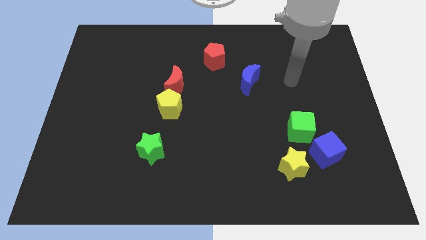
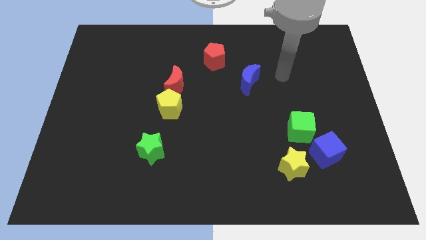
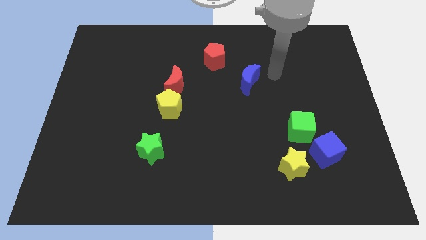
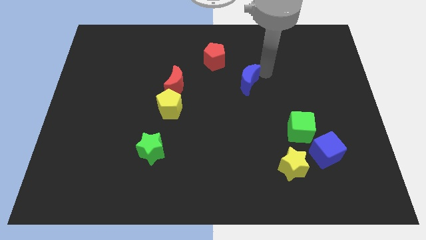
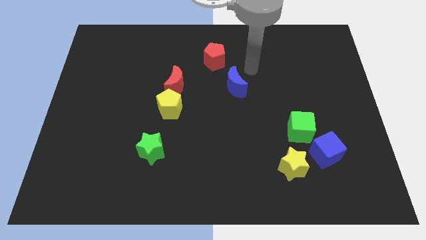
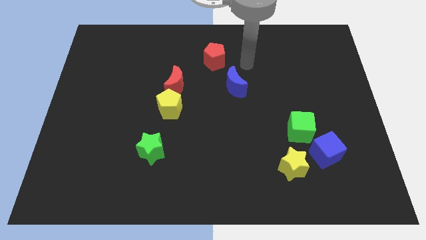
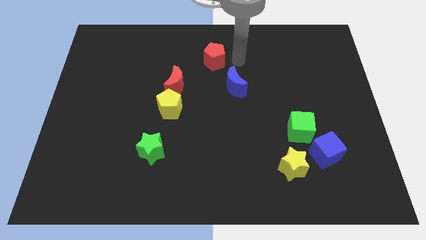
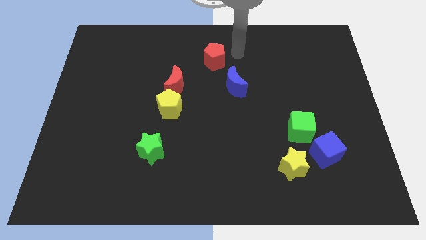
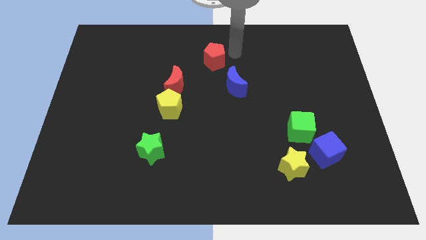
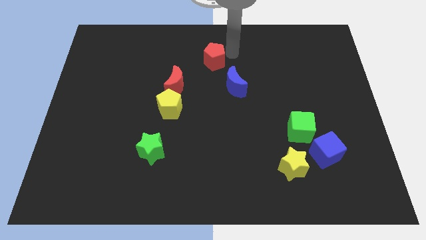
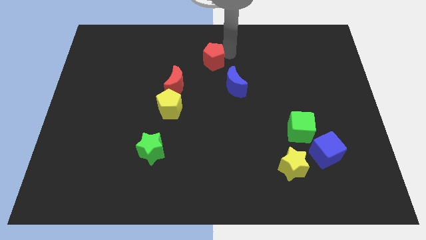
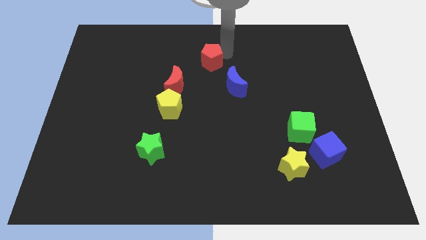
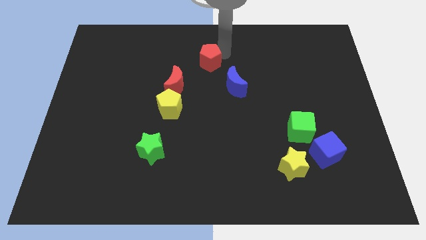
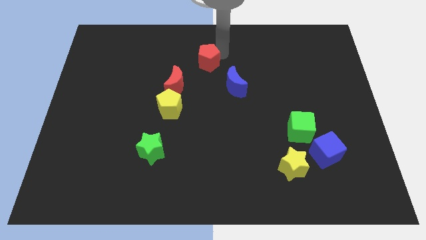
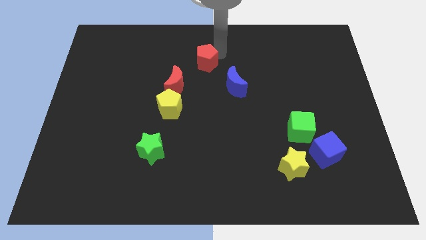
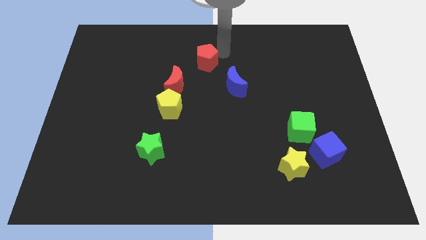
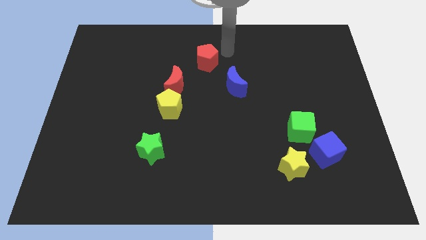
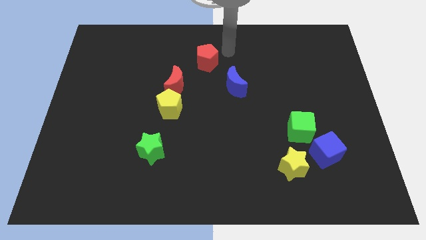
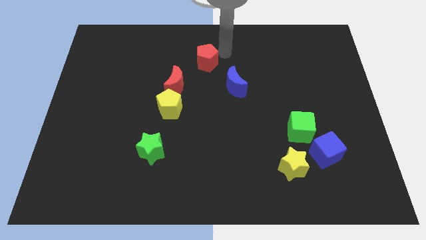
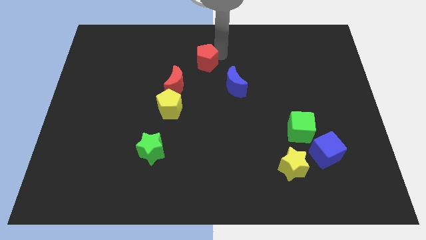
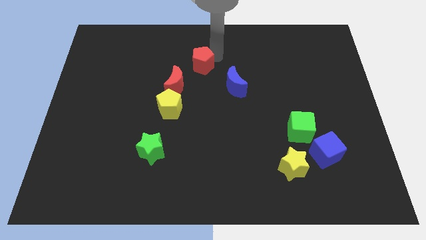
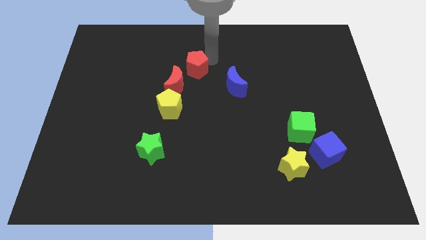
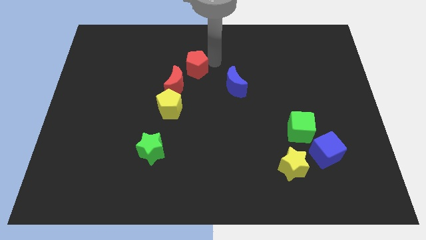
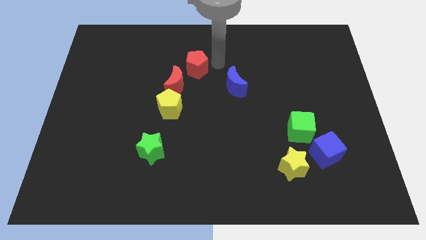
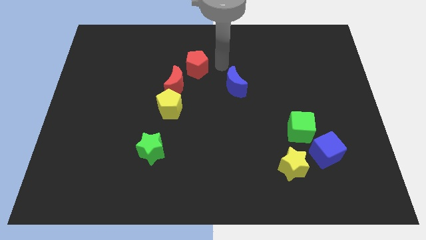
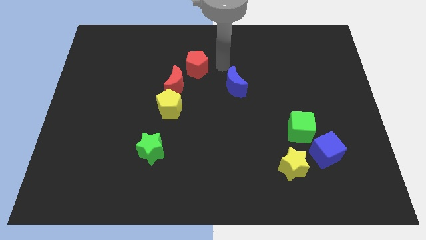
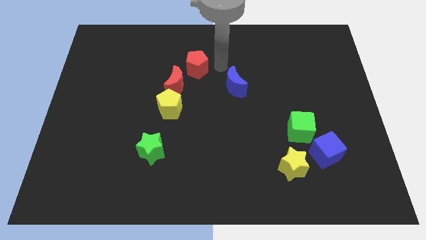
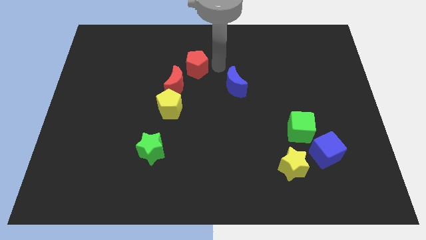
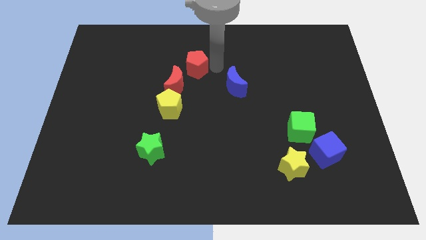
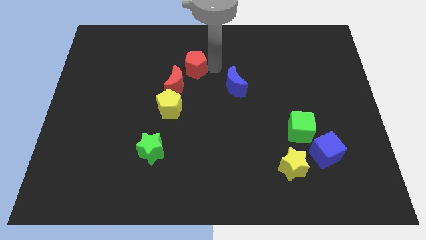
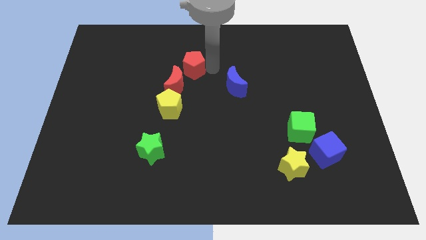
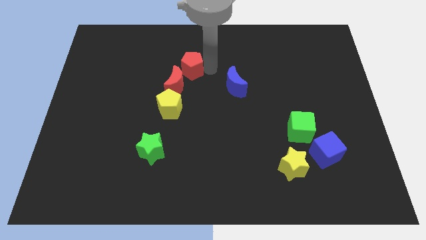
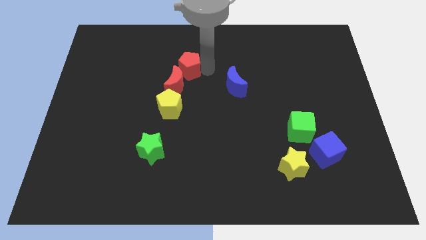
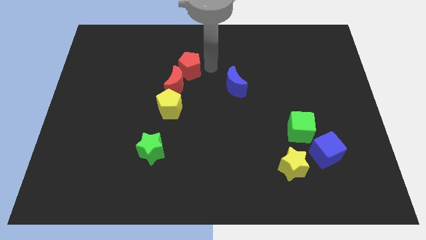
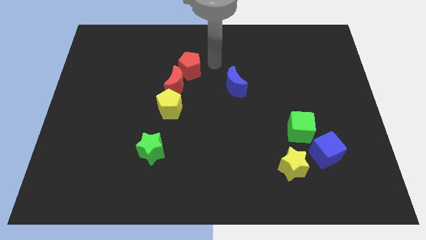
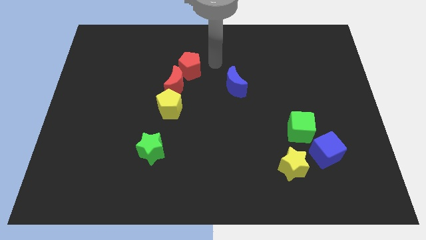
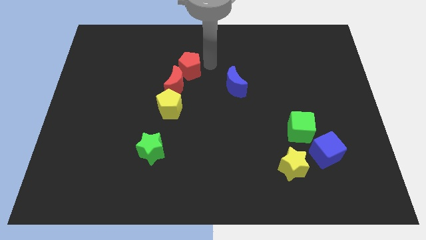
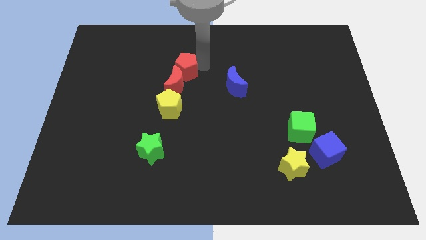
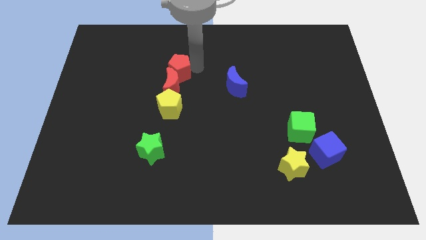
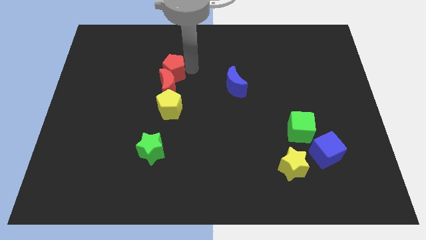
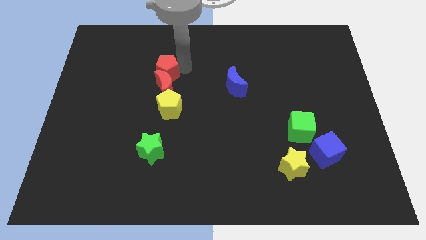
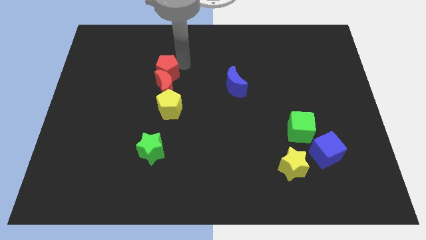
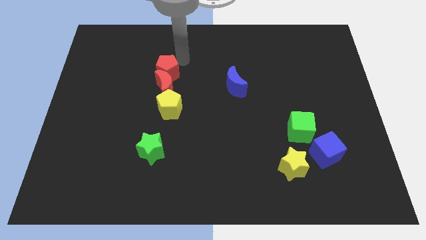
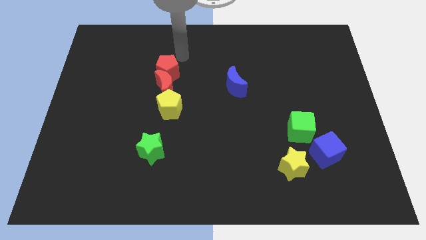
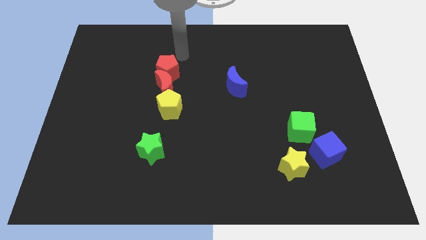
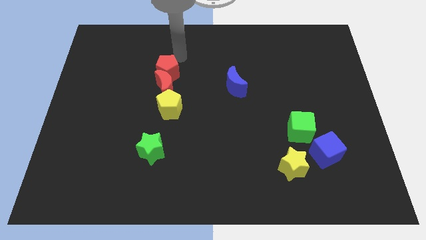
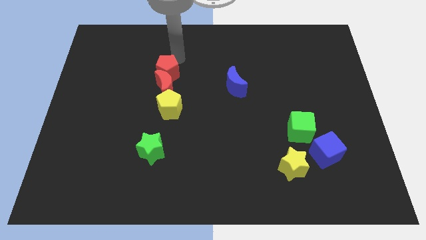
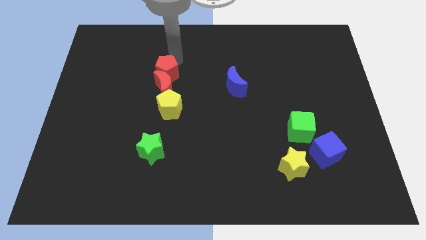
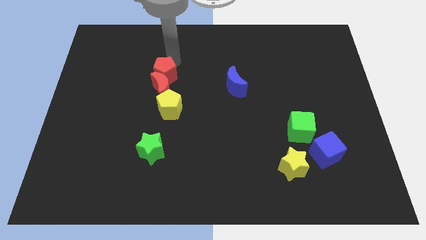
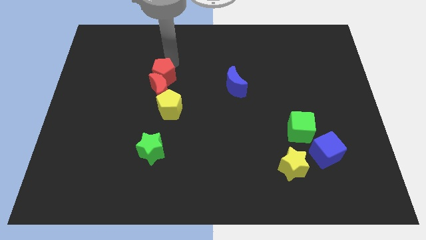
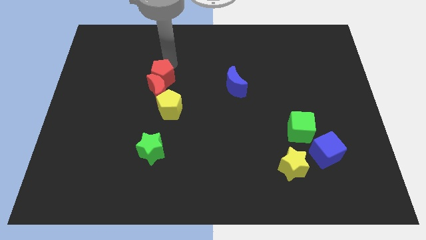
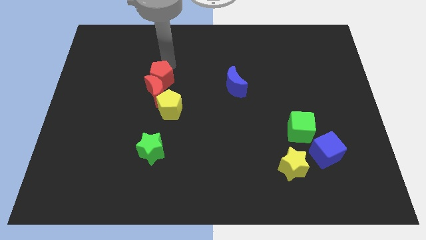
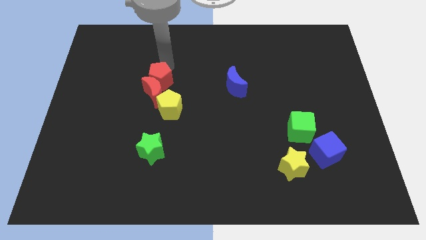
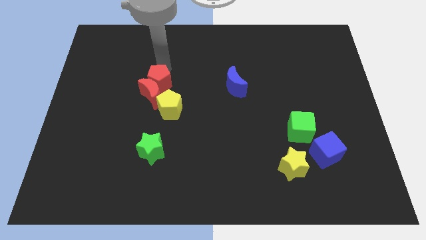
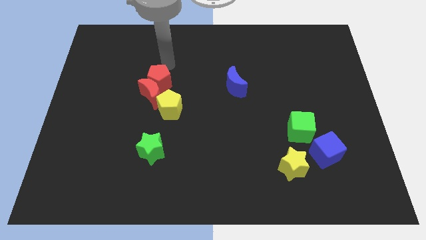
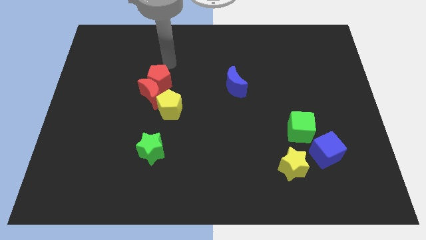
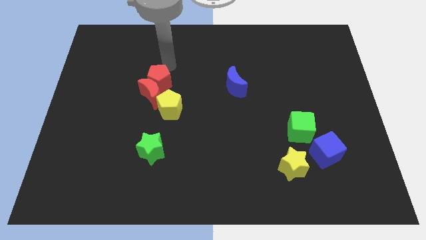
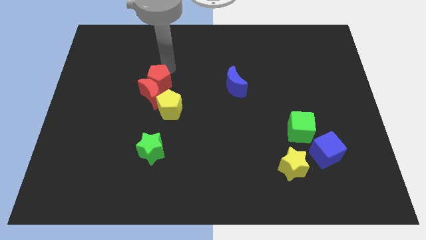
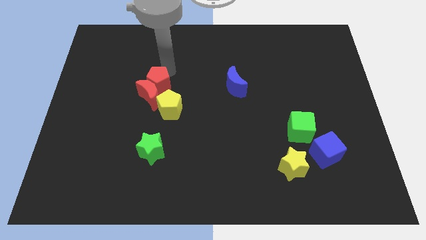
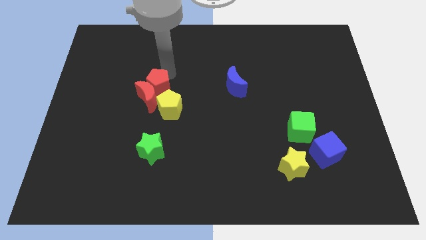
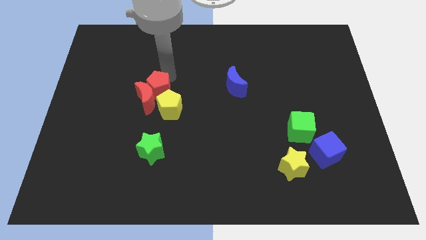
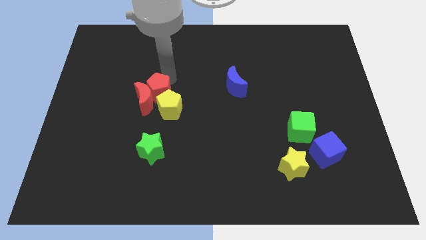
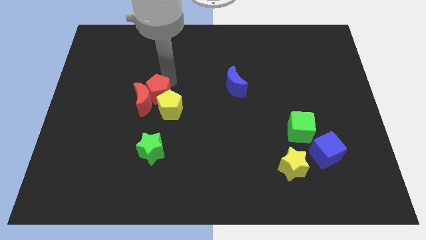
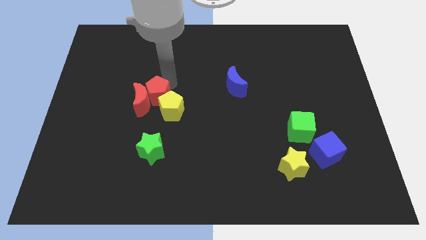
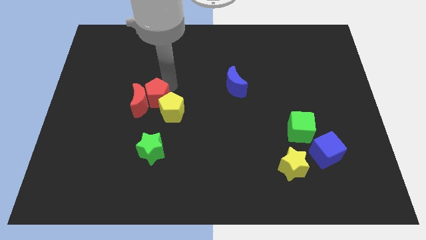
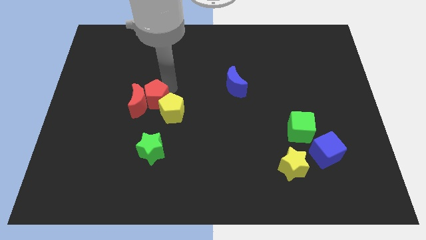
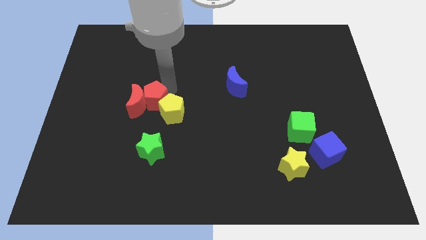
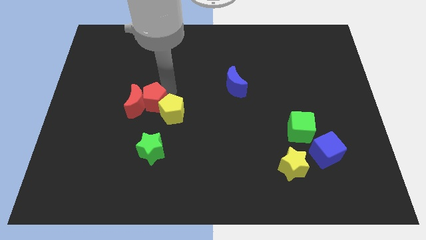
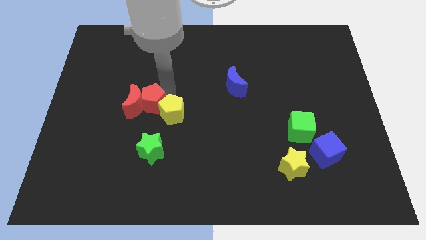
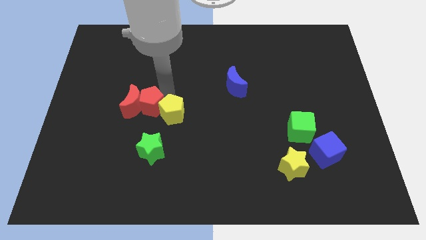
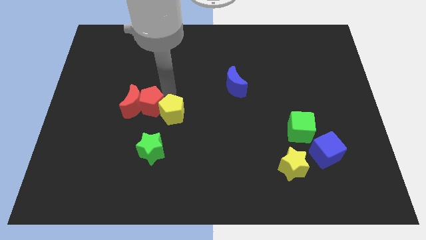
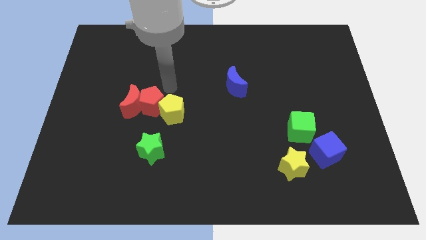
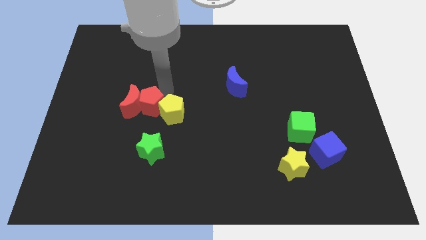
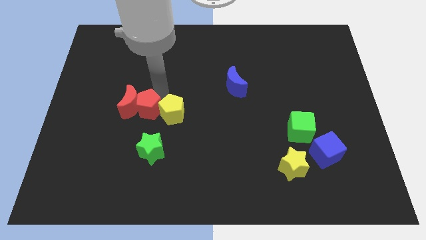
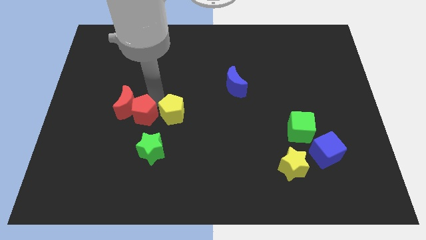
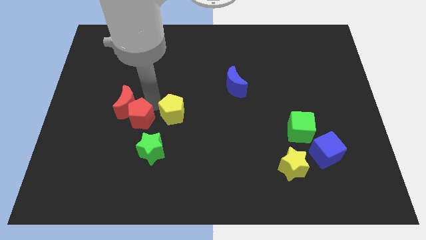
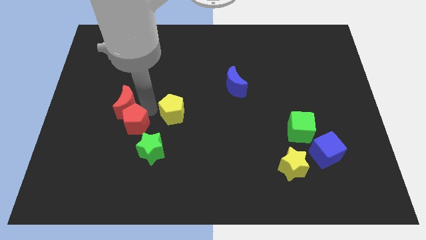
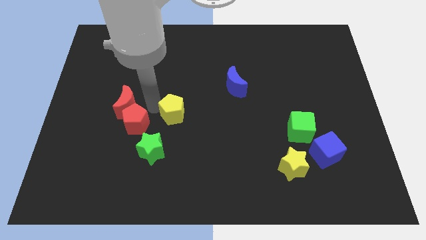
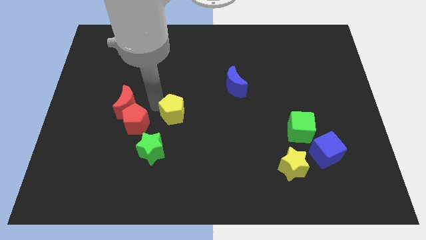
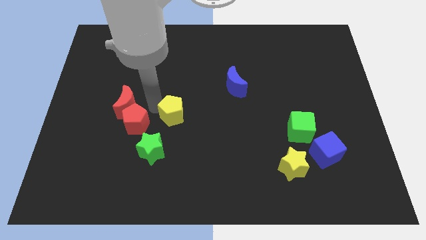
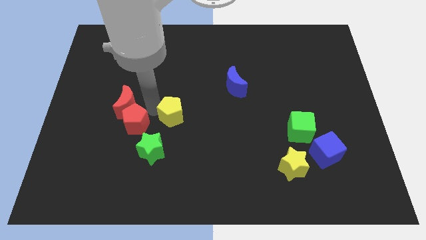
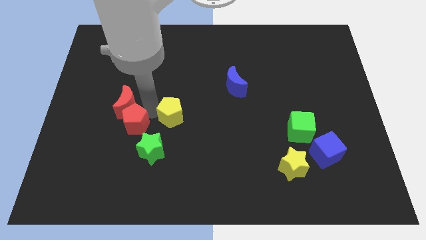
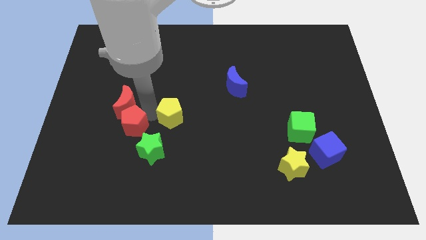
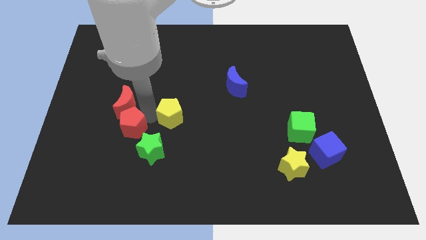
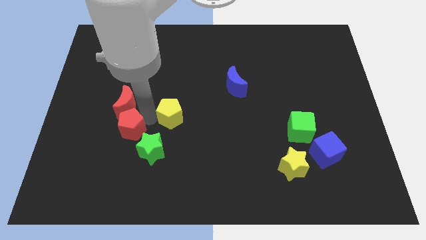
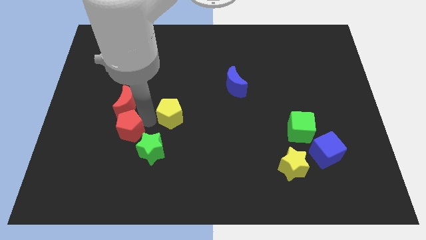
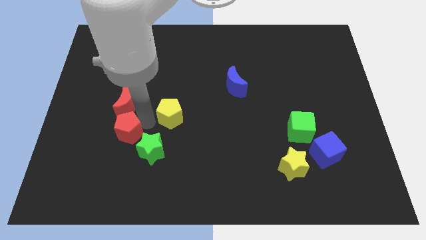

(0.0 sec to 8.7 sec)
move the red pentagon to the left of the green star
